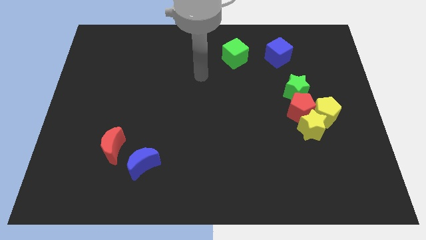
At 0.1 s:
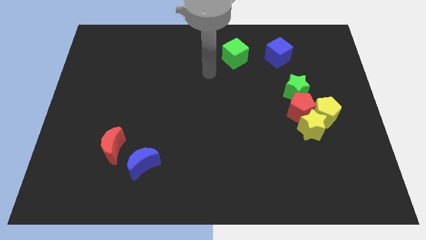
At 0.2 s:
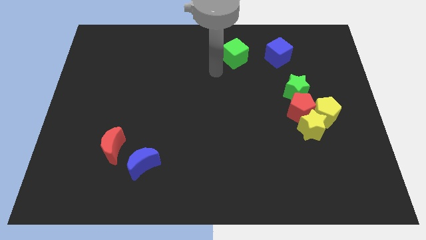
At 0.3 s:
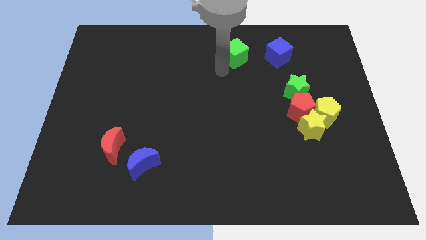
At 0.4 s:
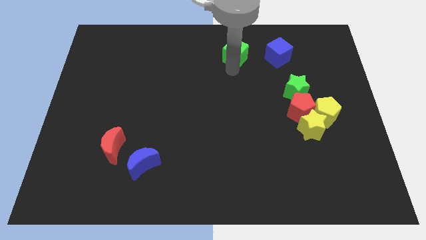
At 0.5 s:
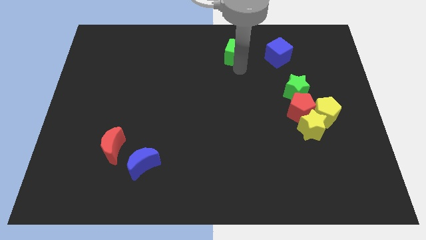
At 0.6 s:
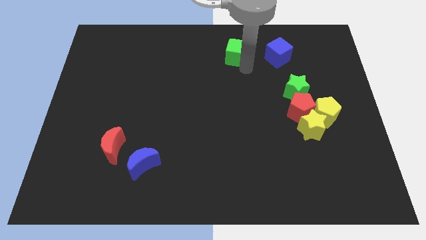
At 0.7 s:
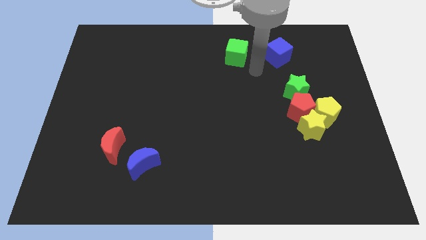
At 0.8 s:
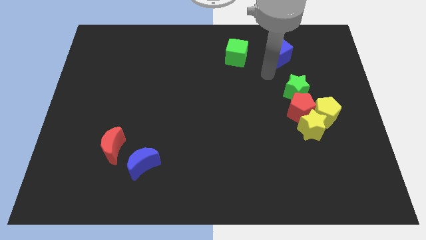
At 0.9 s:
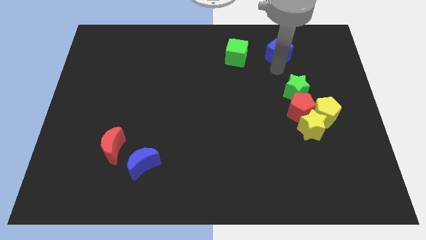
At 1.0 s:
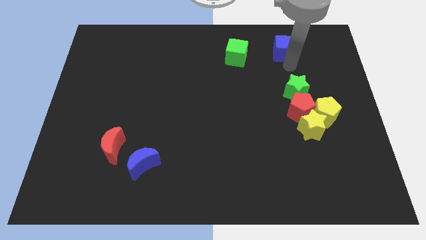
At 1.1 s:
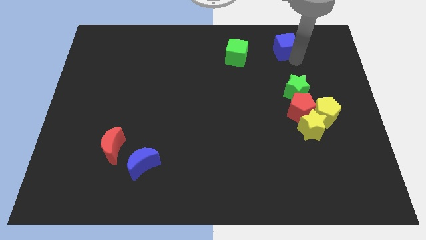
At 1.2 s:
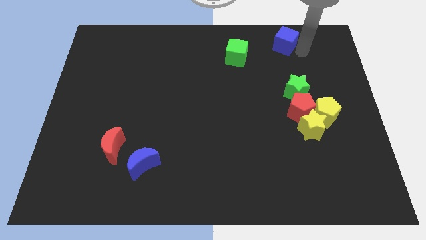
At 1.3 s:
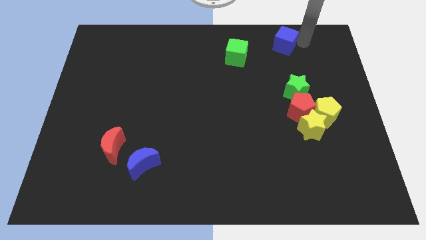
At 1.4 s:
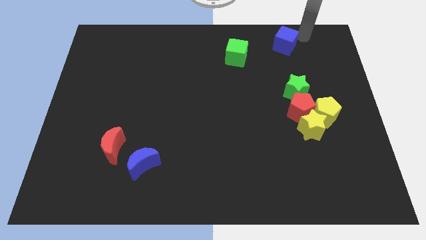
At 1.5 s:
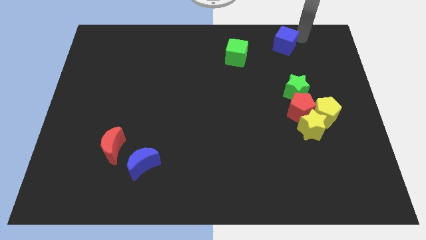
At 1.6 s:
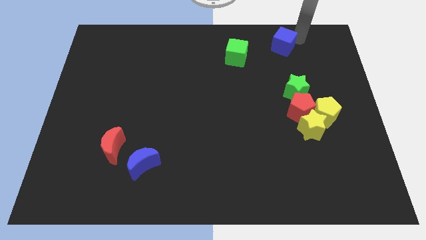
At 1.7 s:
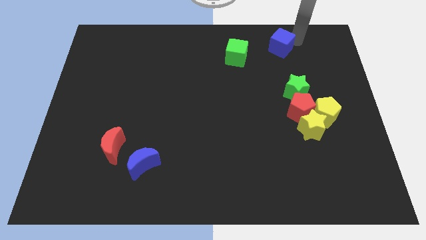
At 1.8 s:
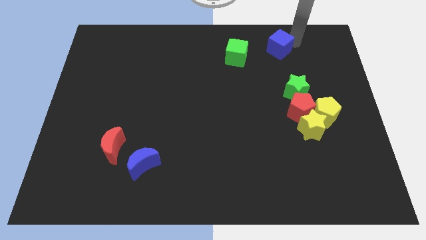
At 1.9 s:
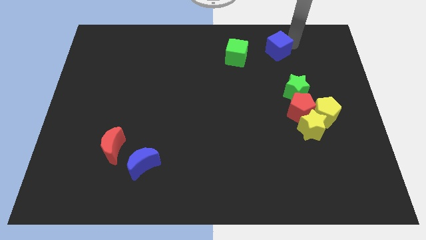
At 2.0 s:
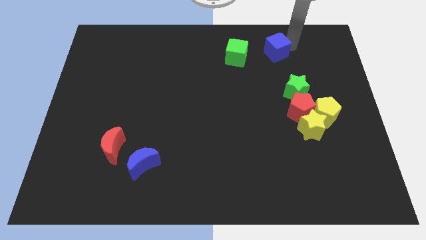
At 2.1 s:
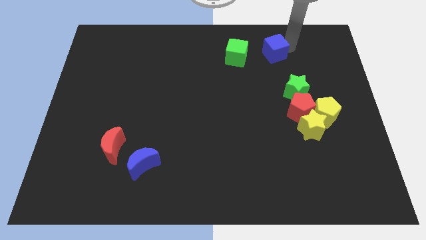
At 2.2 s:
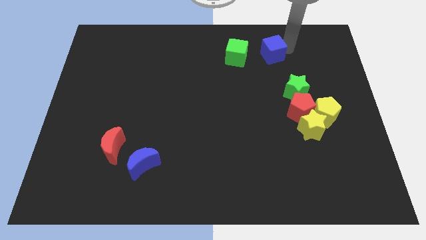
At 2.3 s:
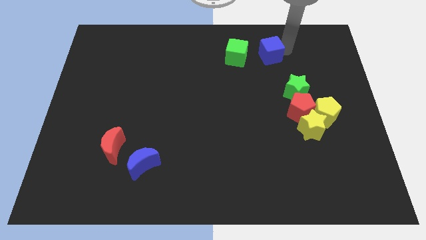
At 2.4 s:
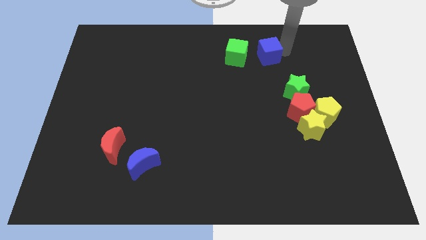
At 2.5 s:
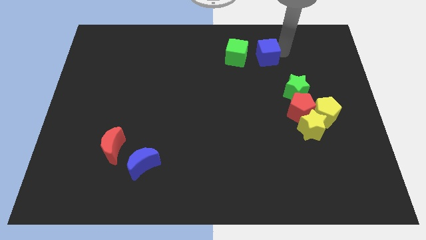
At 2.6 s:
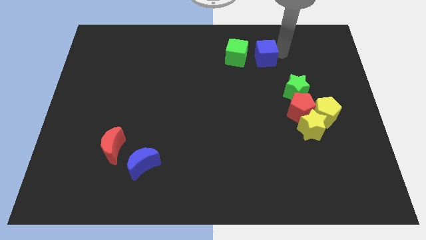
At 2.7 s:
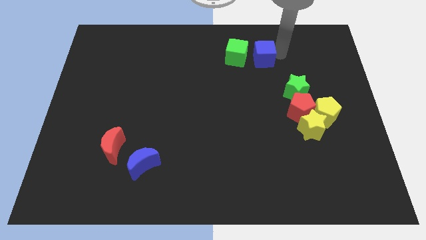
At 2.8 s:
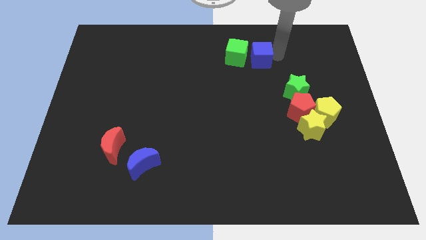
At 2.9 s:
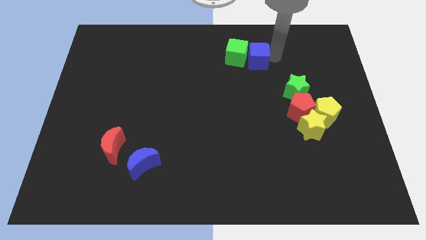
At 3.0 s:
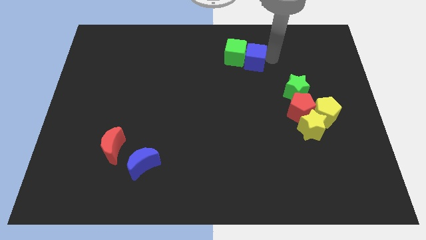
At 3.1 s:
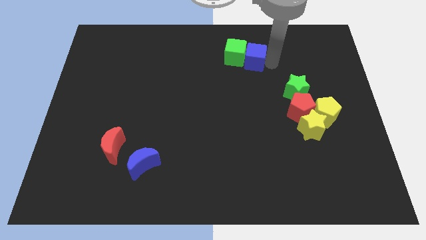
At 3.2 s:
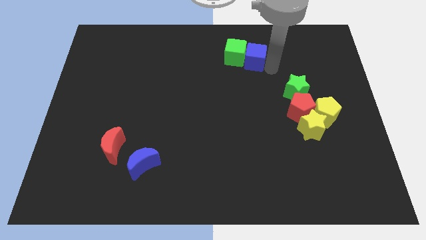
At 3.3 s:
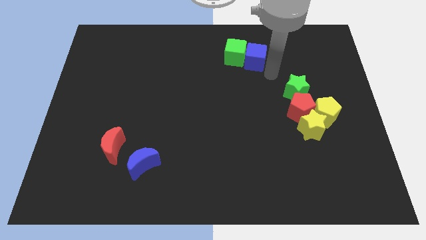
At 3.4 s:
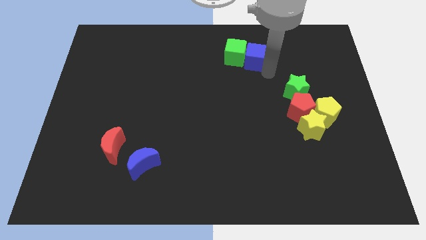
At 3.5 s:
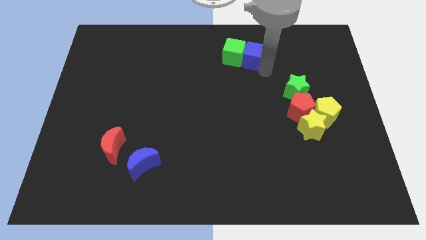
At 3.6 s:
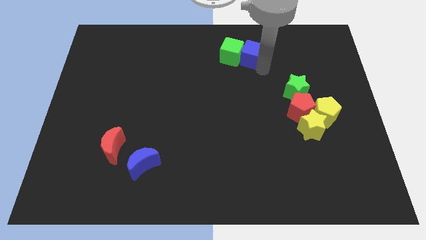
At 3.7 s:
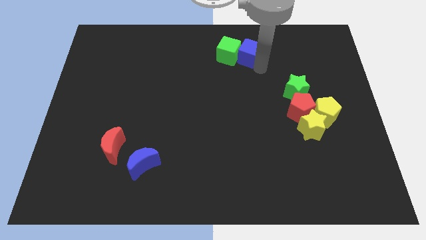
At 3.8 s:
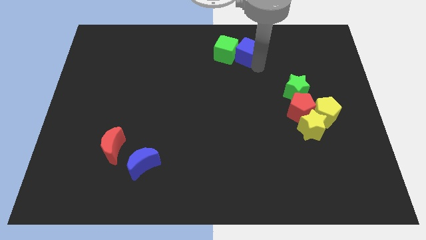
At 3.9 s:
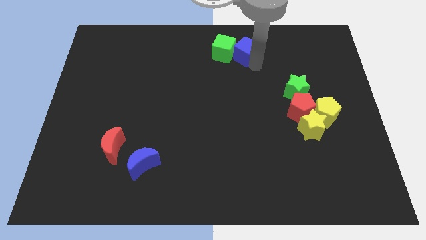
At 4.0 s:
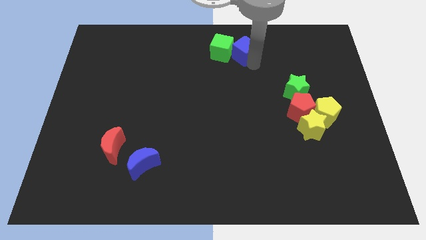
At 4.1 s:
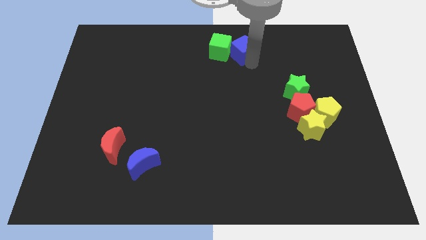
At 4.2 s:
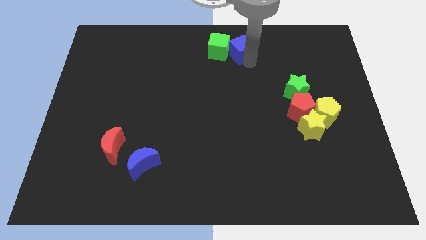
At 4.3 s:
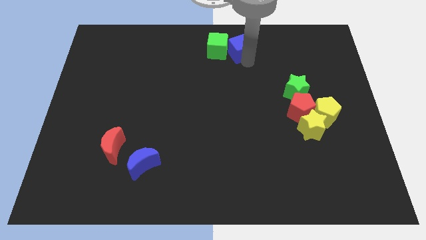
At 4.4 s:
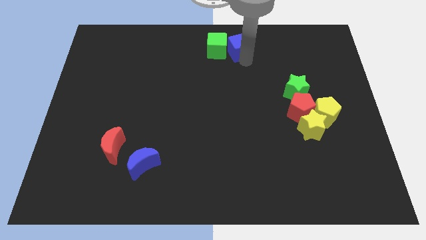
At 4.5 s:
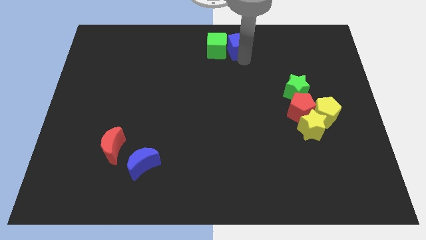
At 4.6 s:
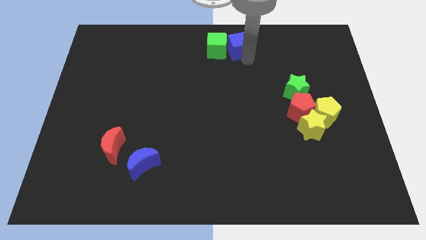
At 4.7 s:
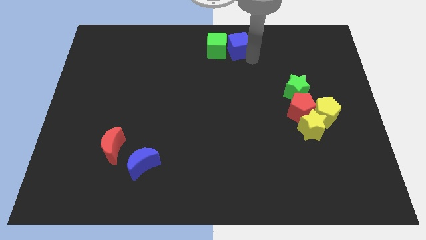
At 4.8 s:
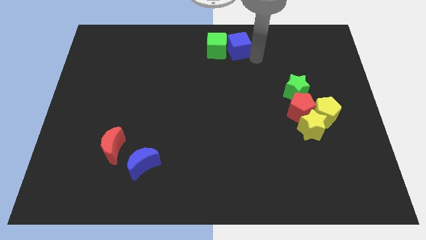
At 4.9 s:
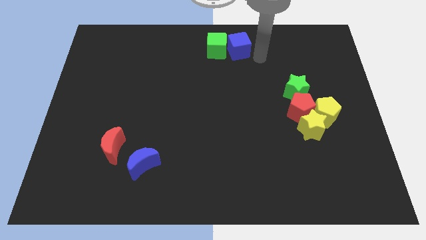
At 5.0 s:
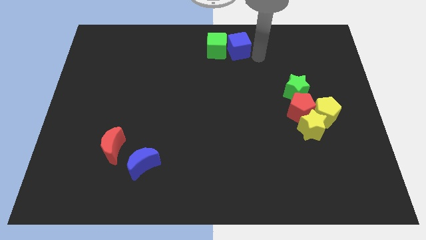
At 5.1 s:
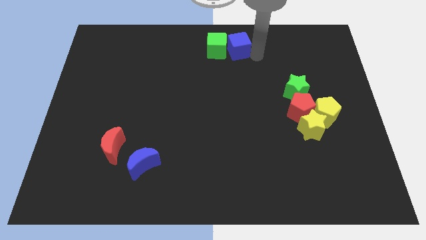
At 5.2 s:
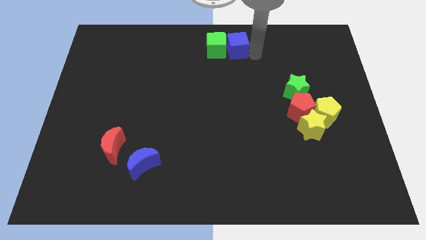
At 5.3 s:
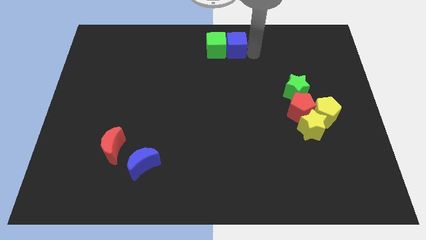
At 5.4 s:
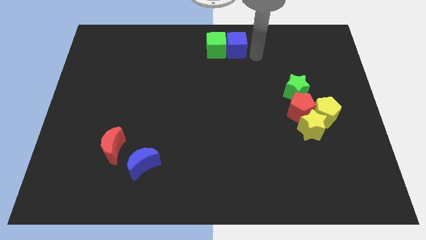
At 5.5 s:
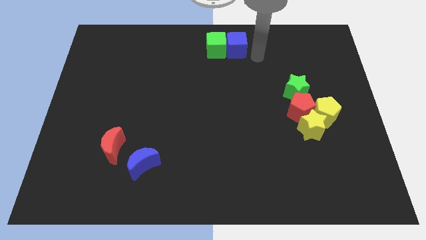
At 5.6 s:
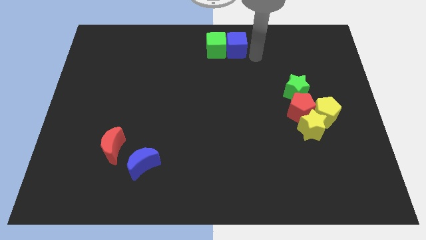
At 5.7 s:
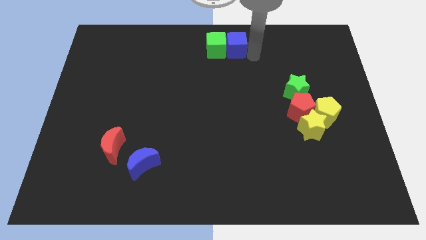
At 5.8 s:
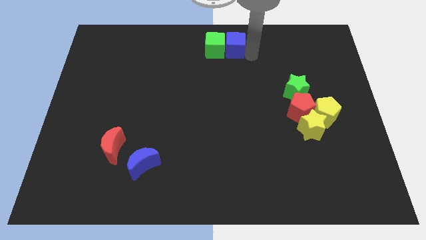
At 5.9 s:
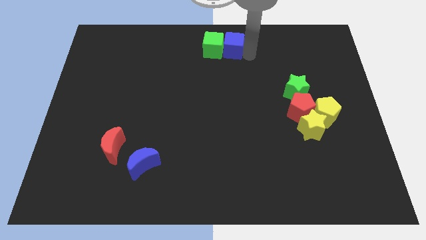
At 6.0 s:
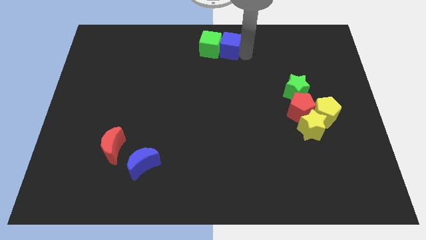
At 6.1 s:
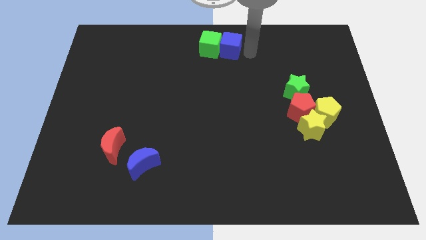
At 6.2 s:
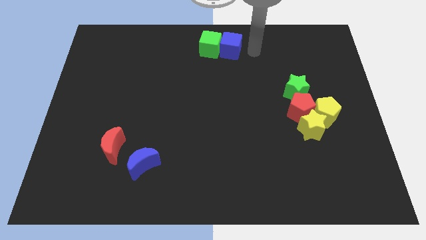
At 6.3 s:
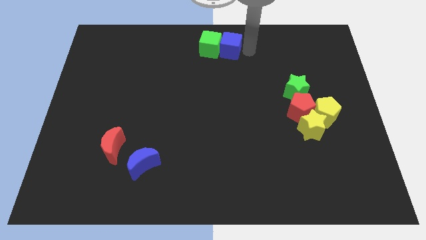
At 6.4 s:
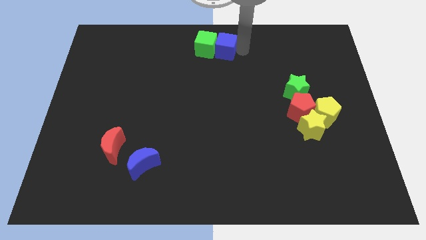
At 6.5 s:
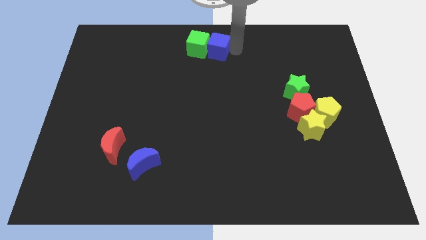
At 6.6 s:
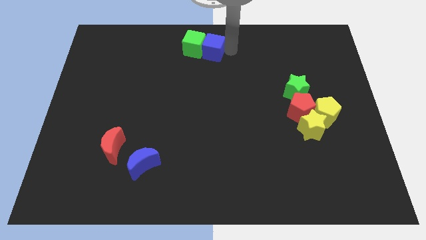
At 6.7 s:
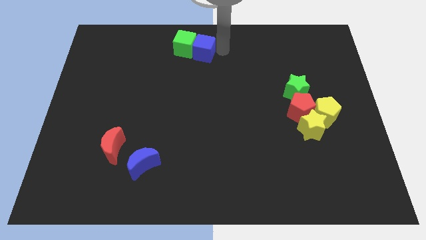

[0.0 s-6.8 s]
slide the blue cube to the left

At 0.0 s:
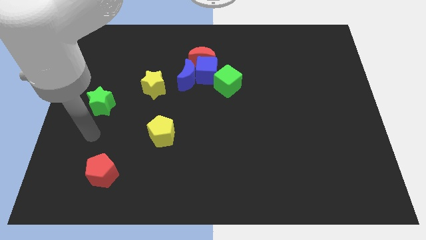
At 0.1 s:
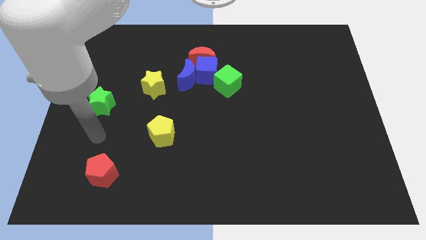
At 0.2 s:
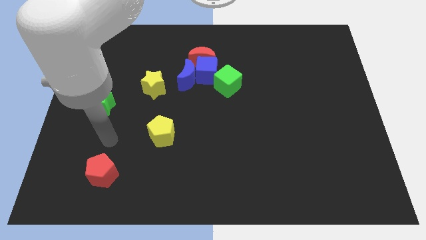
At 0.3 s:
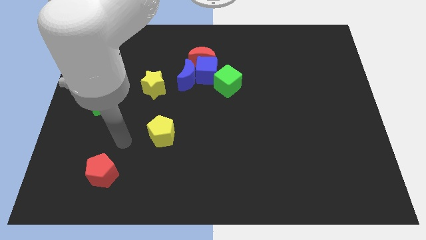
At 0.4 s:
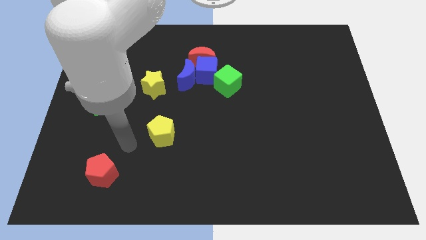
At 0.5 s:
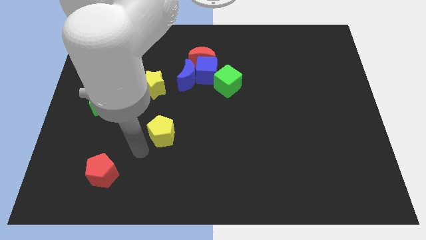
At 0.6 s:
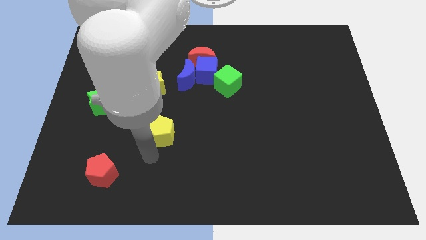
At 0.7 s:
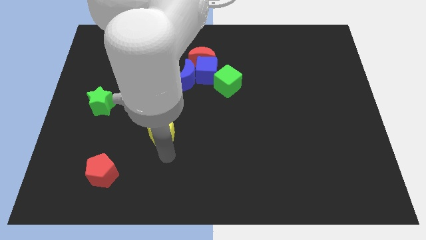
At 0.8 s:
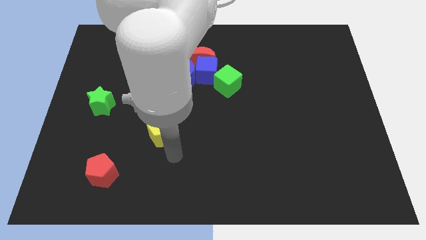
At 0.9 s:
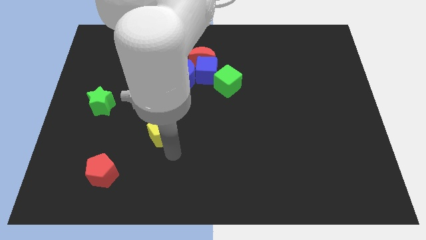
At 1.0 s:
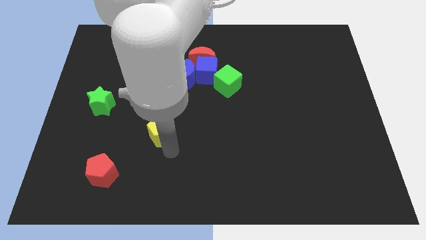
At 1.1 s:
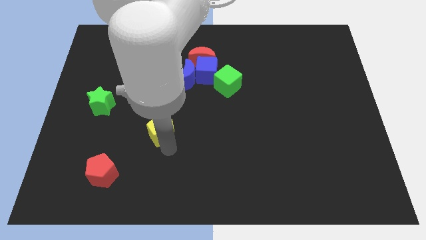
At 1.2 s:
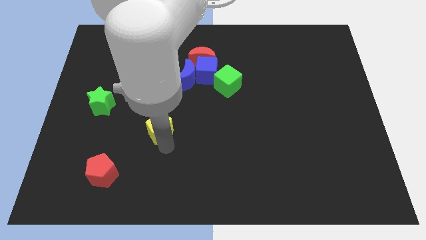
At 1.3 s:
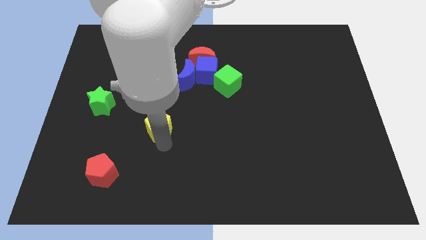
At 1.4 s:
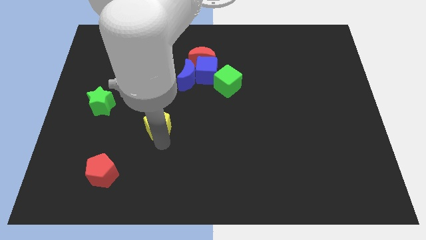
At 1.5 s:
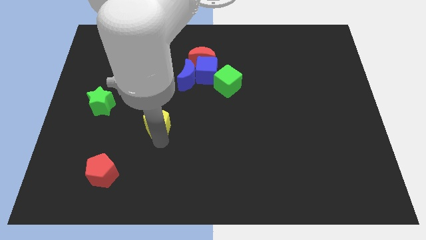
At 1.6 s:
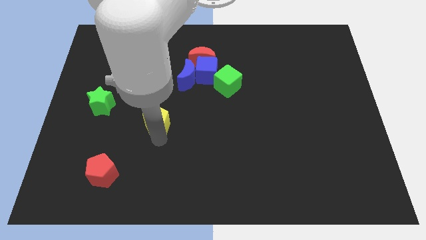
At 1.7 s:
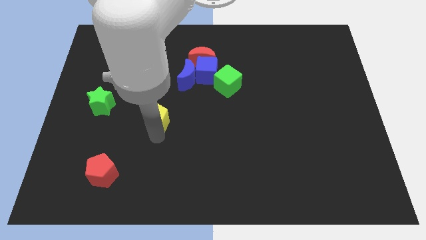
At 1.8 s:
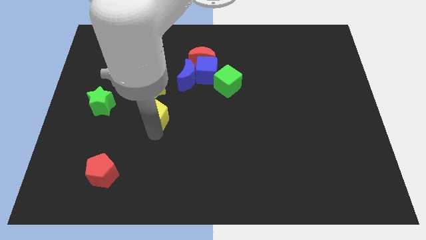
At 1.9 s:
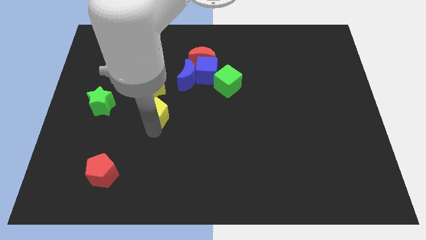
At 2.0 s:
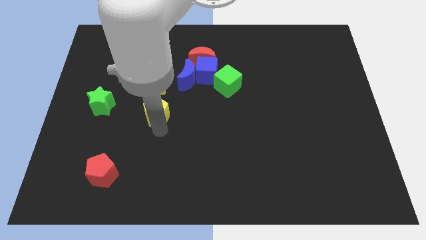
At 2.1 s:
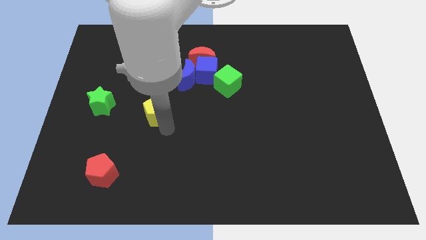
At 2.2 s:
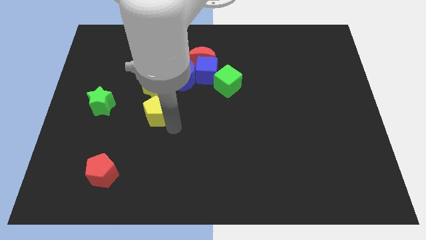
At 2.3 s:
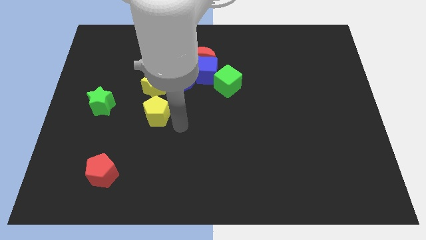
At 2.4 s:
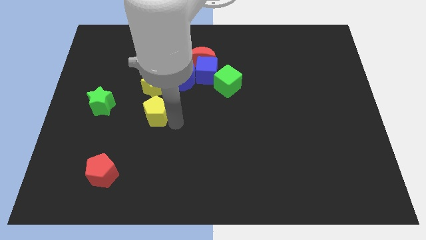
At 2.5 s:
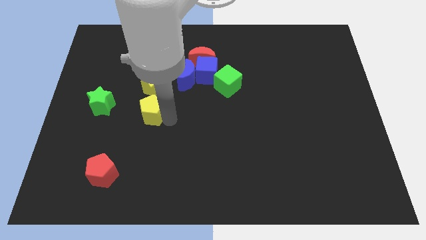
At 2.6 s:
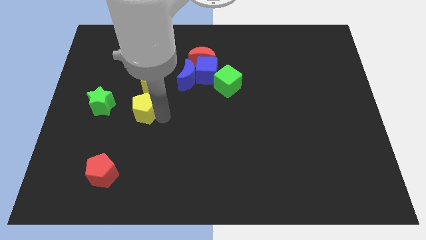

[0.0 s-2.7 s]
slightly move the yellow pentagon upwards and left
